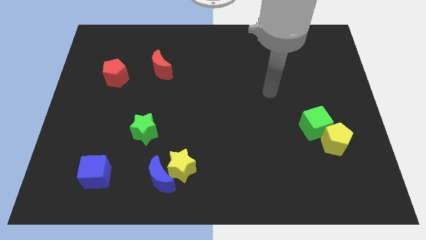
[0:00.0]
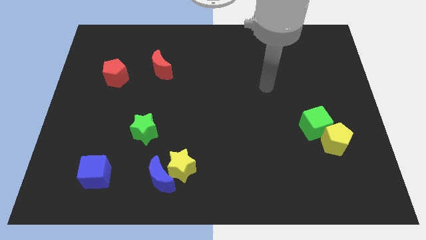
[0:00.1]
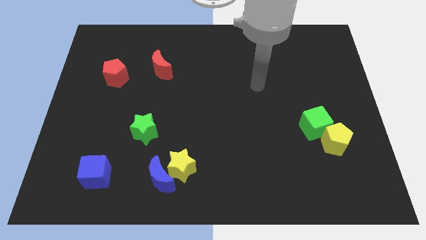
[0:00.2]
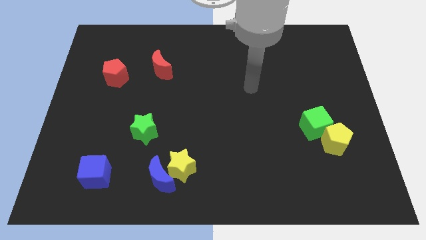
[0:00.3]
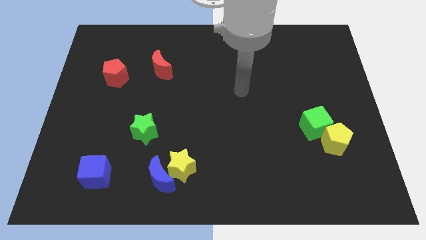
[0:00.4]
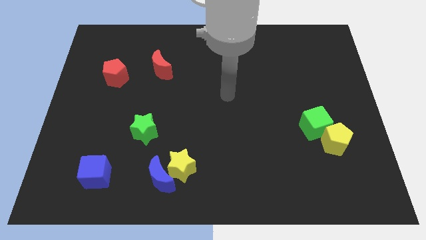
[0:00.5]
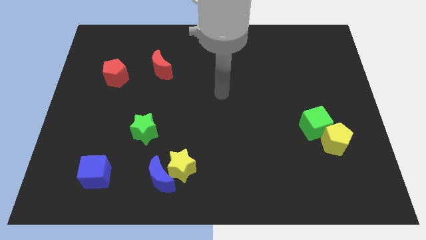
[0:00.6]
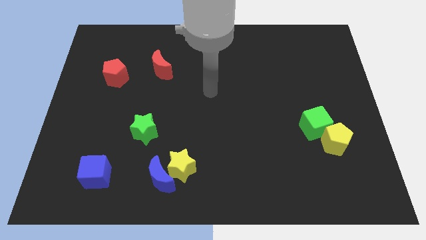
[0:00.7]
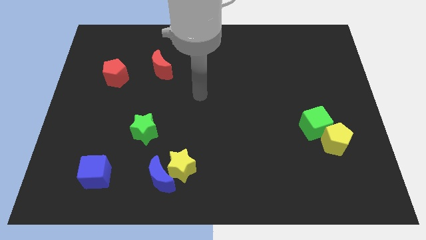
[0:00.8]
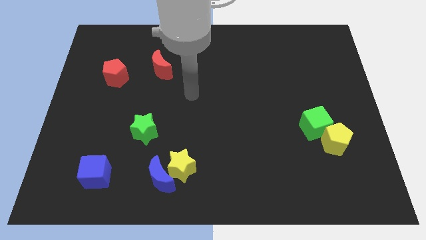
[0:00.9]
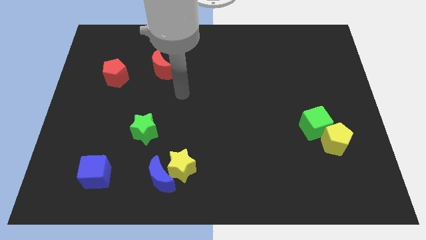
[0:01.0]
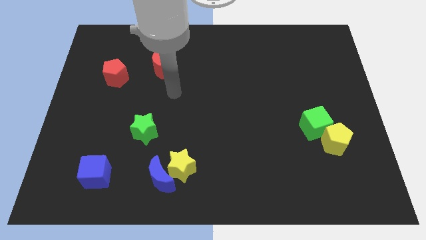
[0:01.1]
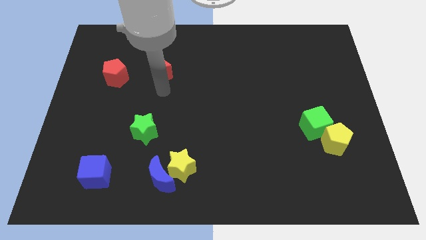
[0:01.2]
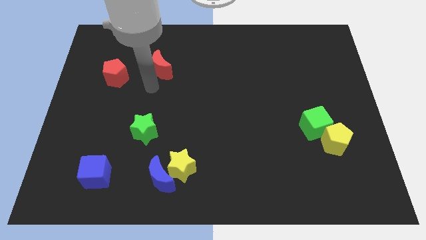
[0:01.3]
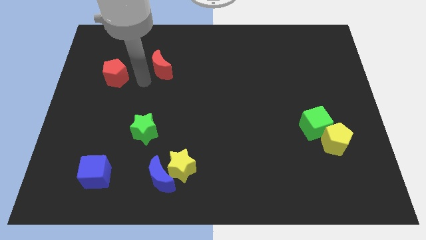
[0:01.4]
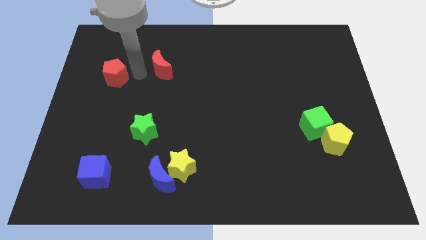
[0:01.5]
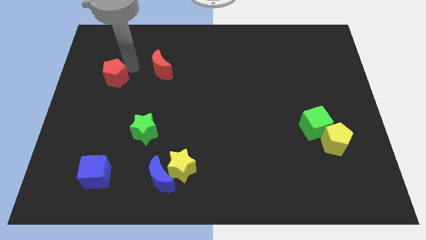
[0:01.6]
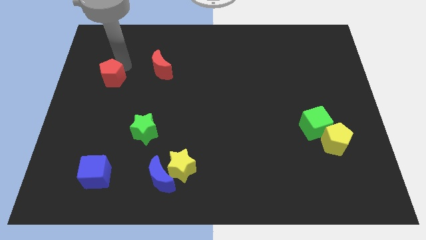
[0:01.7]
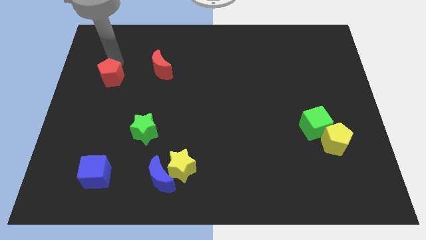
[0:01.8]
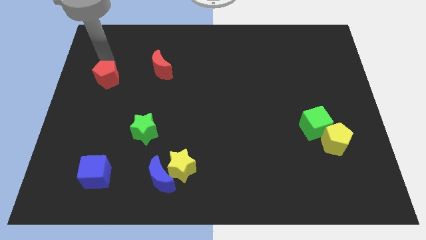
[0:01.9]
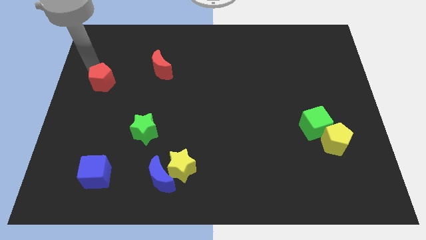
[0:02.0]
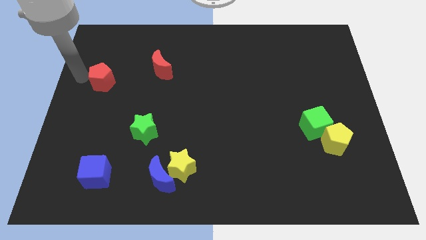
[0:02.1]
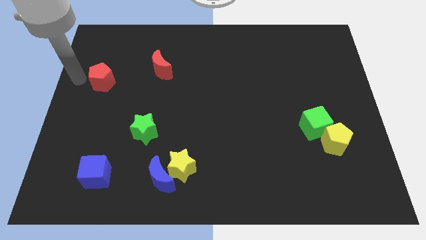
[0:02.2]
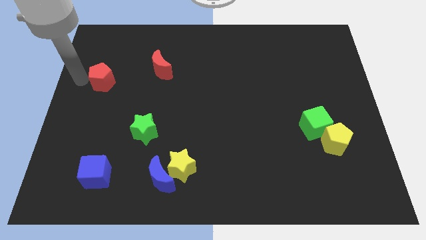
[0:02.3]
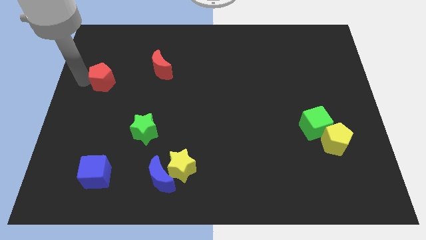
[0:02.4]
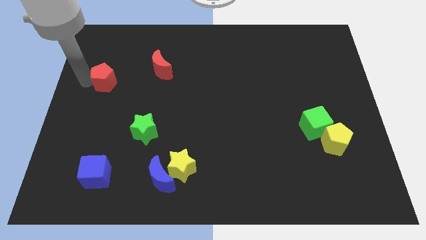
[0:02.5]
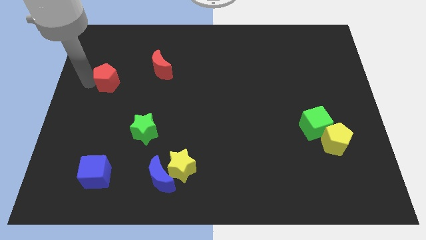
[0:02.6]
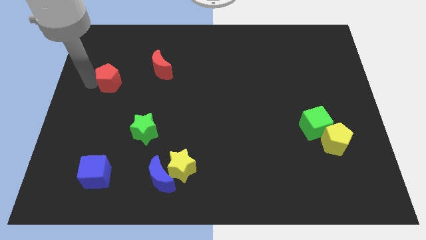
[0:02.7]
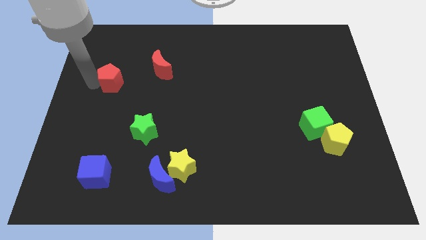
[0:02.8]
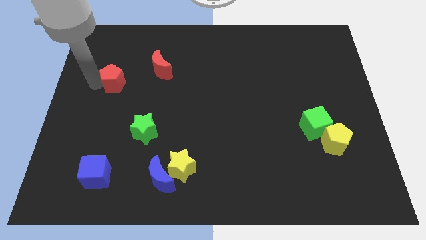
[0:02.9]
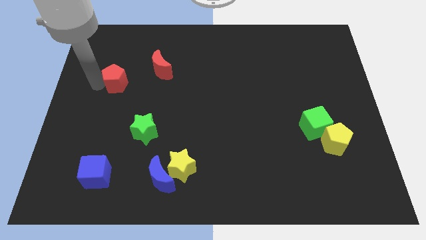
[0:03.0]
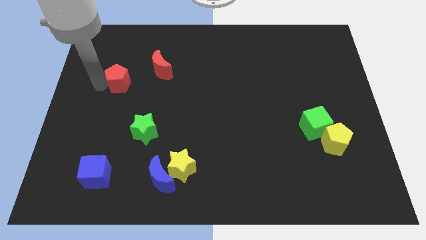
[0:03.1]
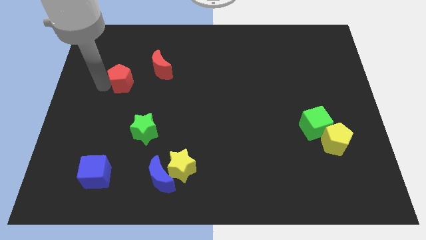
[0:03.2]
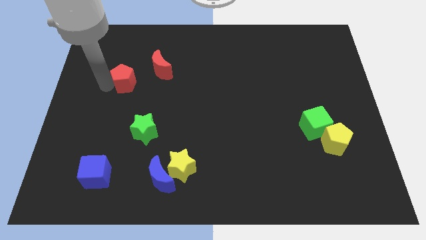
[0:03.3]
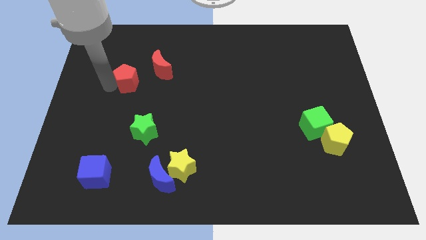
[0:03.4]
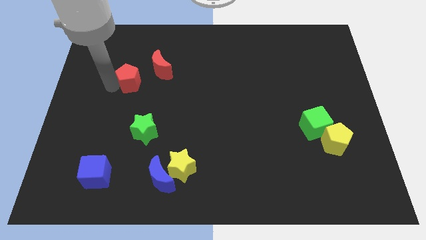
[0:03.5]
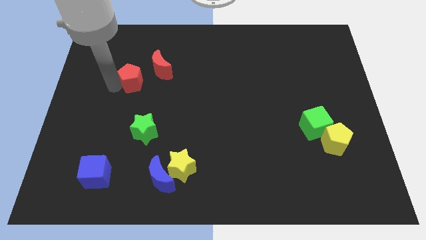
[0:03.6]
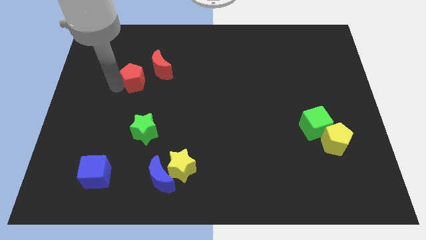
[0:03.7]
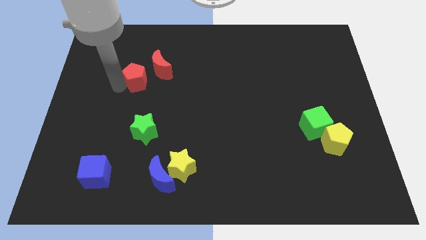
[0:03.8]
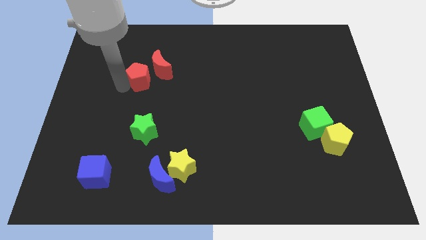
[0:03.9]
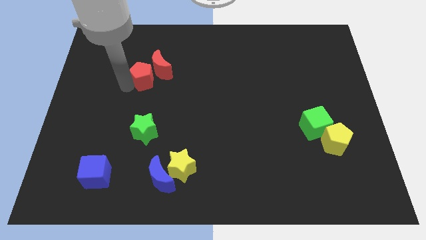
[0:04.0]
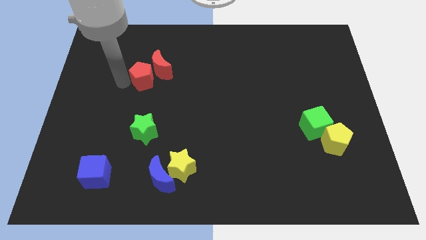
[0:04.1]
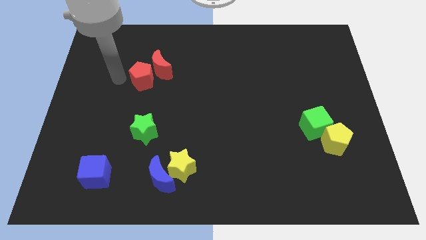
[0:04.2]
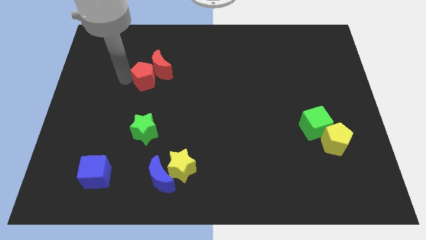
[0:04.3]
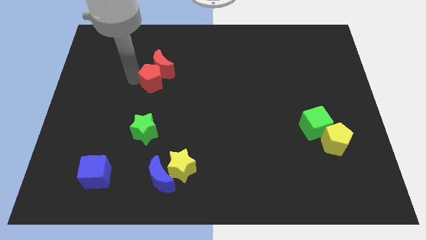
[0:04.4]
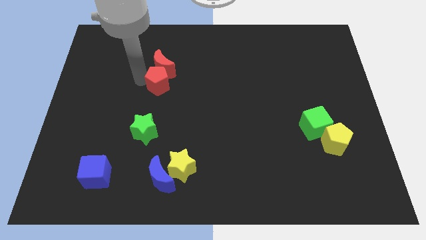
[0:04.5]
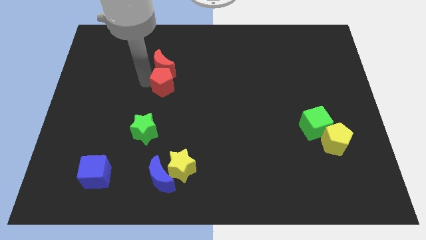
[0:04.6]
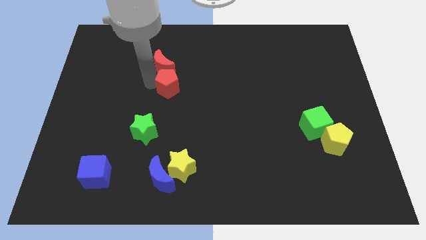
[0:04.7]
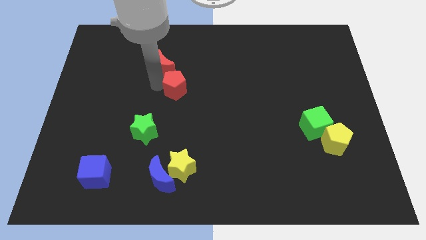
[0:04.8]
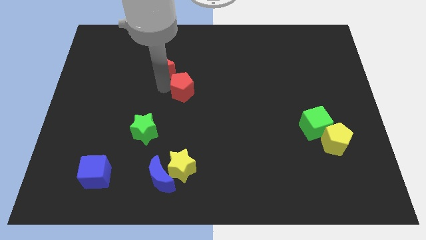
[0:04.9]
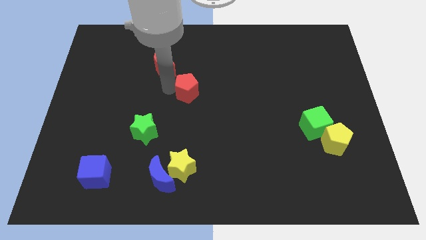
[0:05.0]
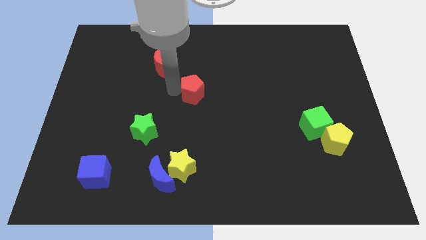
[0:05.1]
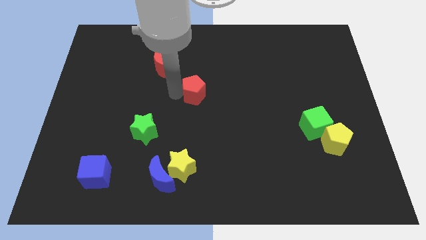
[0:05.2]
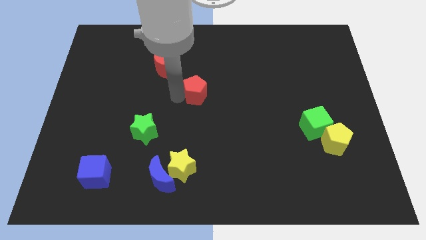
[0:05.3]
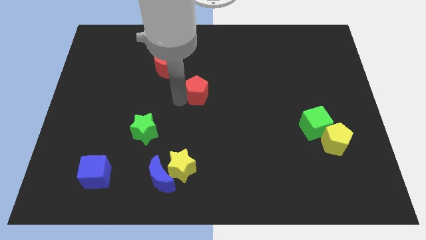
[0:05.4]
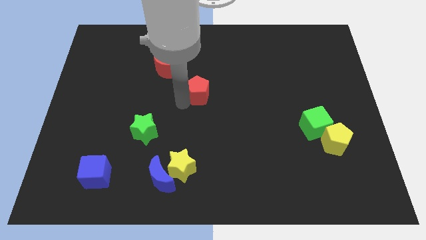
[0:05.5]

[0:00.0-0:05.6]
move the red pentagon right

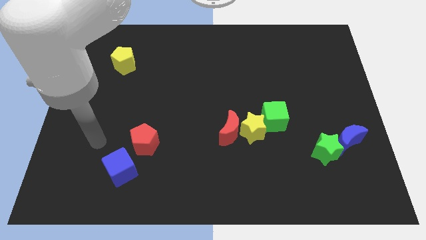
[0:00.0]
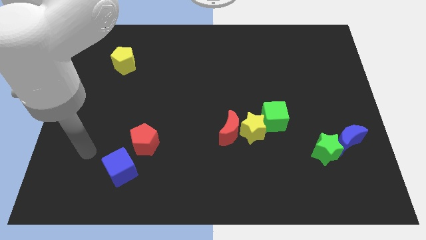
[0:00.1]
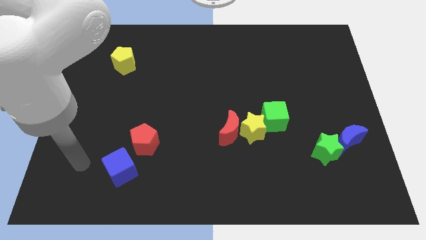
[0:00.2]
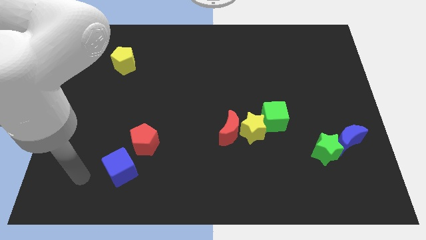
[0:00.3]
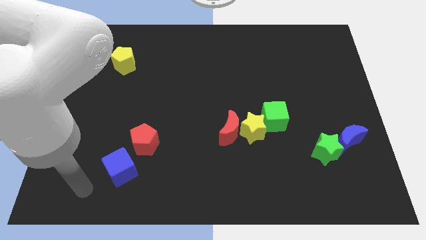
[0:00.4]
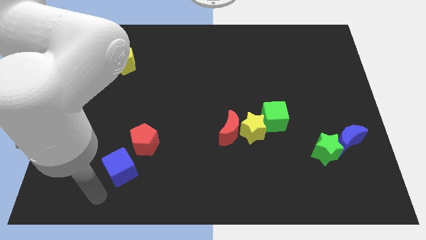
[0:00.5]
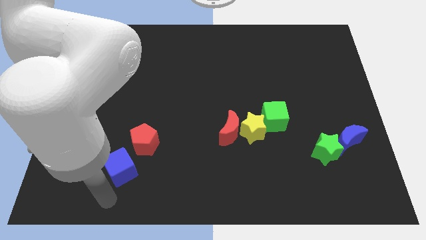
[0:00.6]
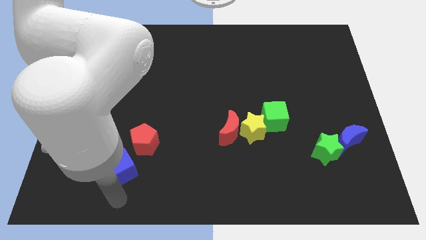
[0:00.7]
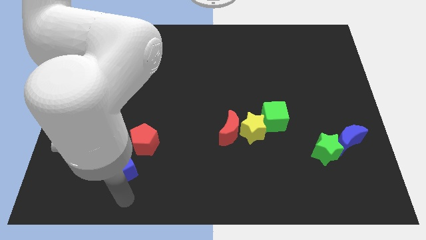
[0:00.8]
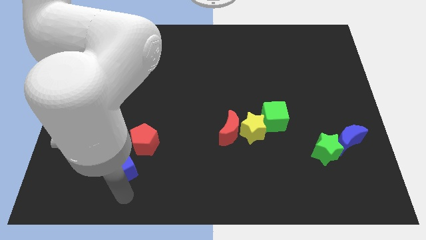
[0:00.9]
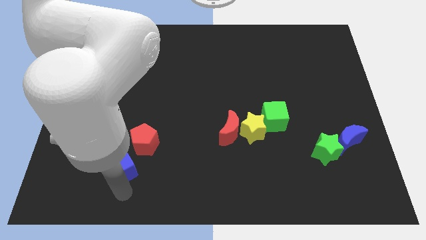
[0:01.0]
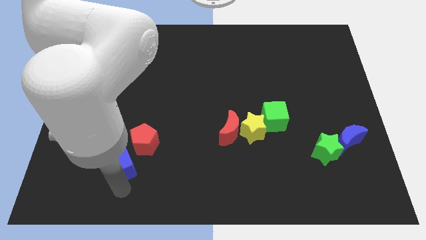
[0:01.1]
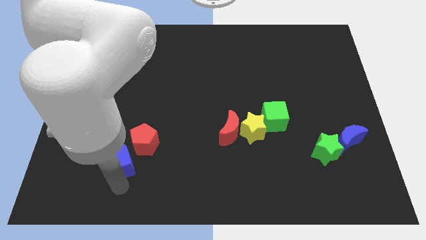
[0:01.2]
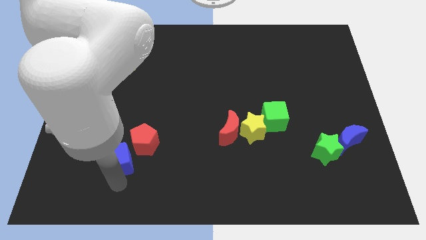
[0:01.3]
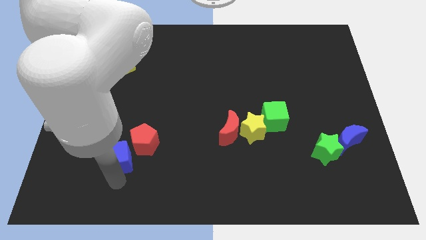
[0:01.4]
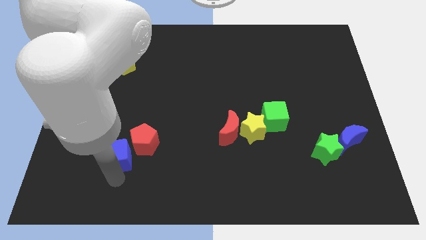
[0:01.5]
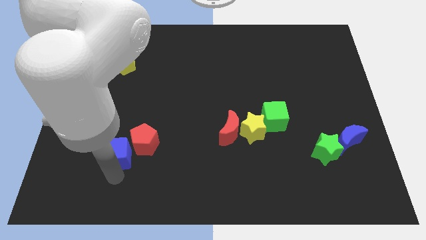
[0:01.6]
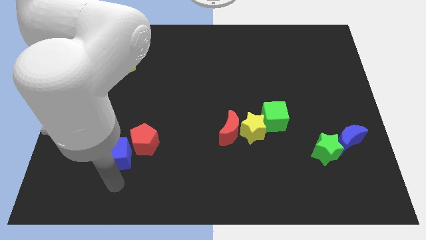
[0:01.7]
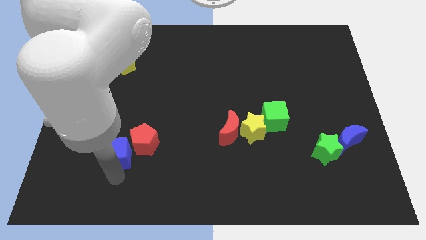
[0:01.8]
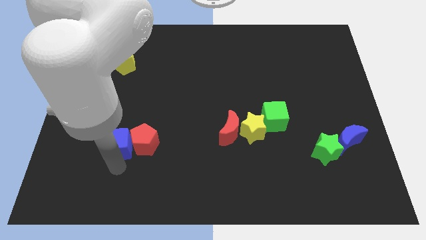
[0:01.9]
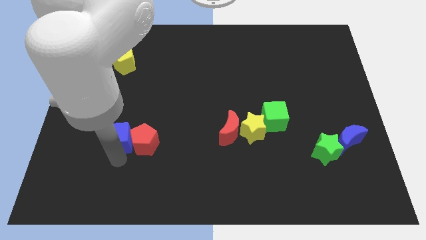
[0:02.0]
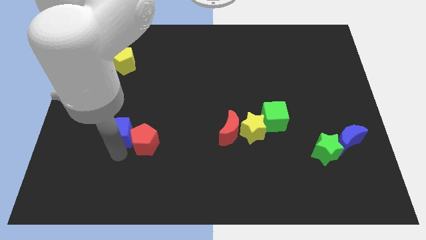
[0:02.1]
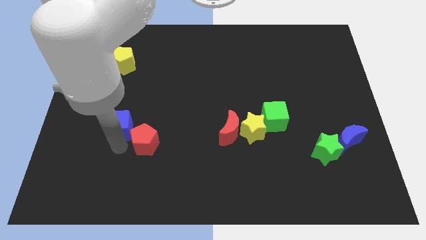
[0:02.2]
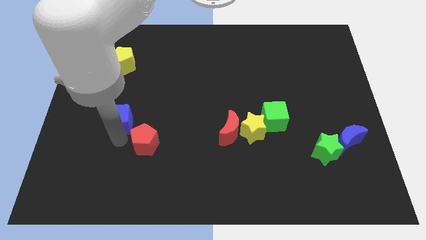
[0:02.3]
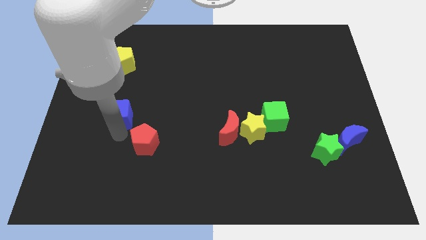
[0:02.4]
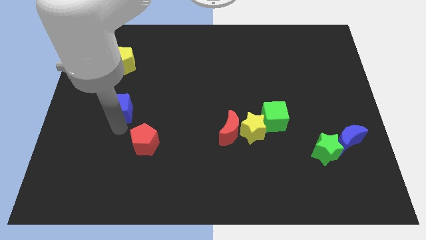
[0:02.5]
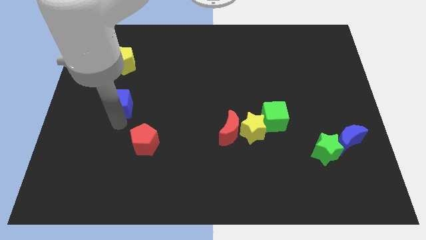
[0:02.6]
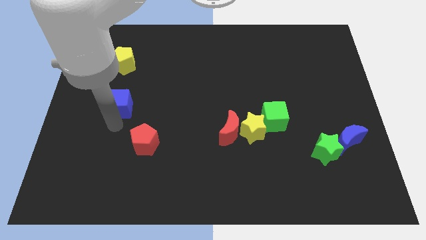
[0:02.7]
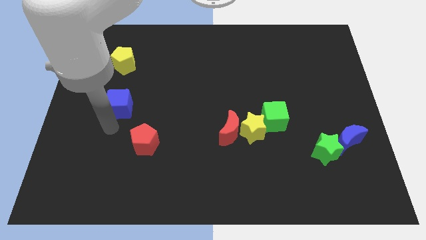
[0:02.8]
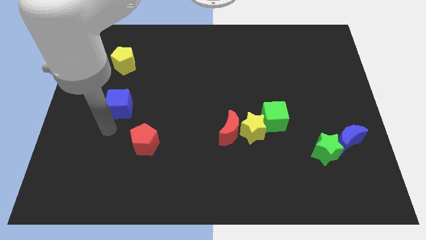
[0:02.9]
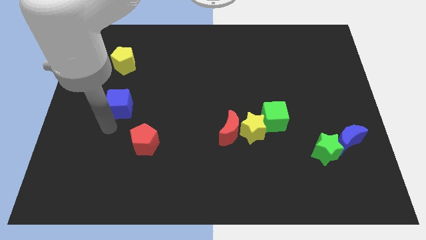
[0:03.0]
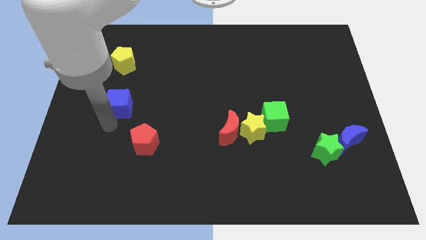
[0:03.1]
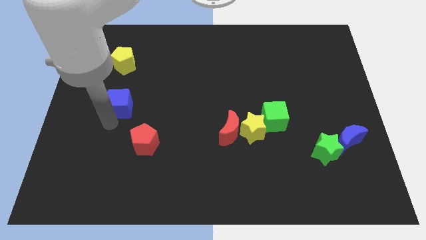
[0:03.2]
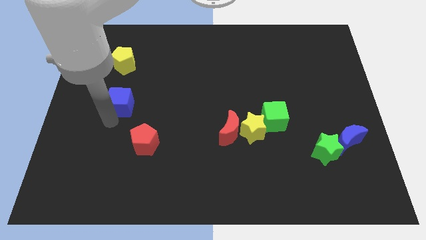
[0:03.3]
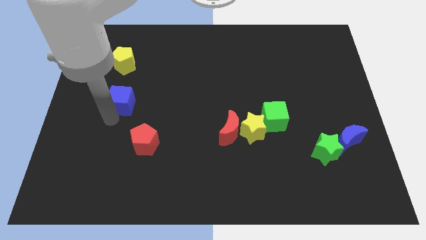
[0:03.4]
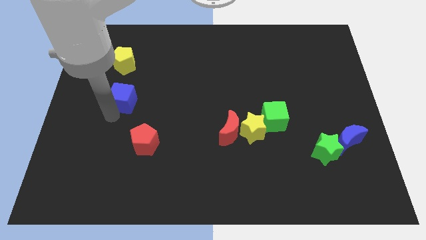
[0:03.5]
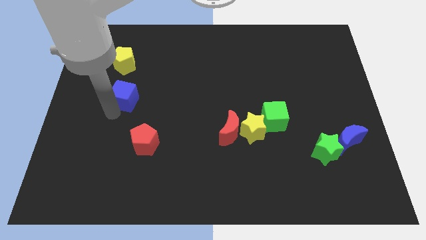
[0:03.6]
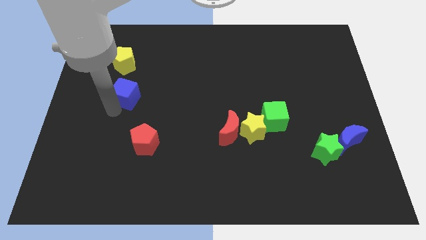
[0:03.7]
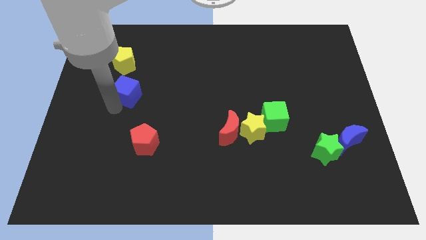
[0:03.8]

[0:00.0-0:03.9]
move the blue cube upwards
